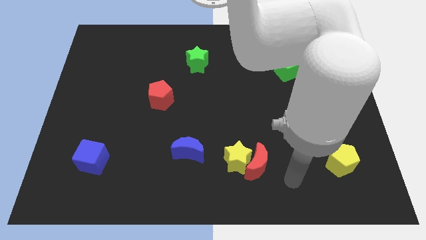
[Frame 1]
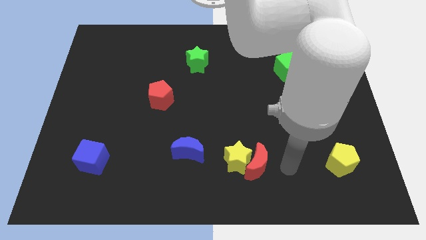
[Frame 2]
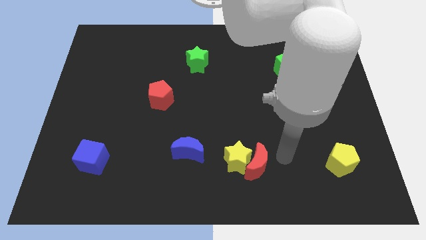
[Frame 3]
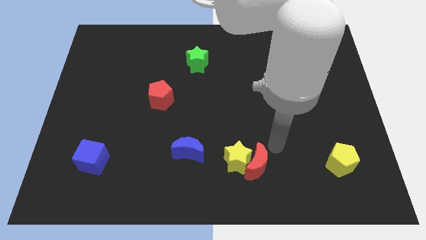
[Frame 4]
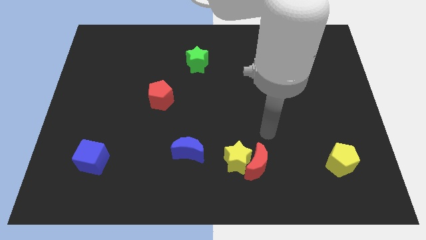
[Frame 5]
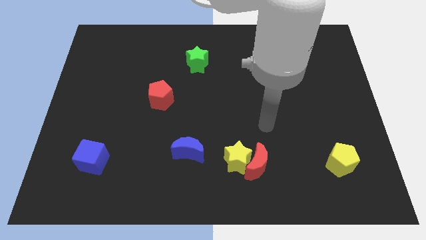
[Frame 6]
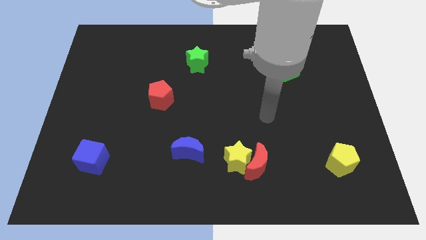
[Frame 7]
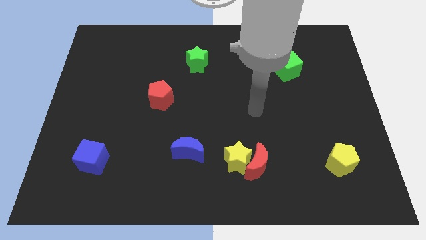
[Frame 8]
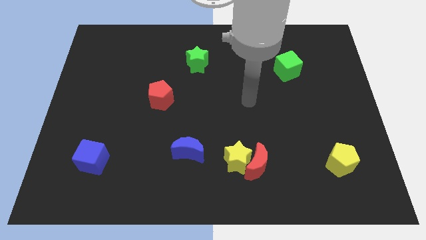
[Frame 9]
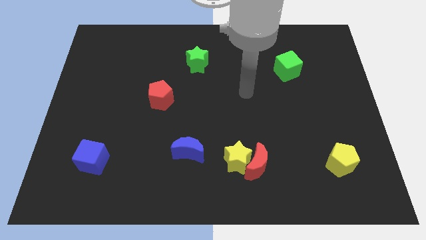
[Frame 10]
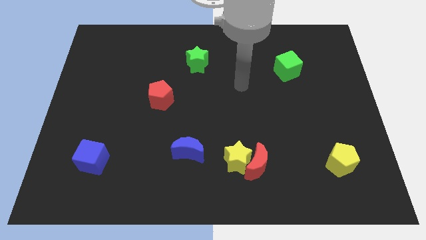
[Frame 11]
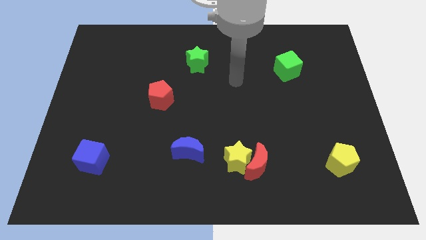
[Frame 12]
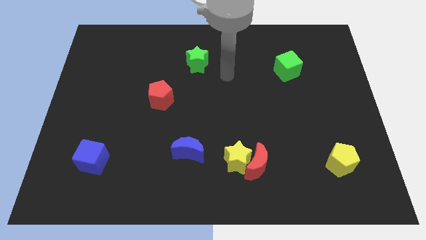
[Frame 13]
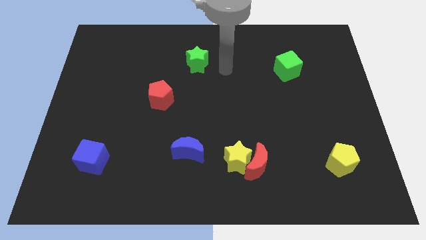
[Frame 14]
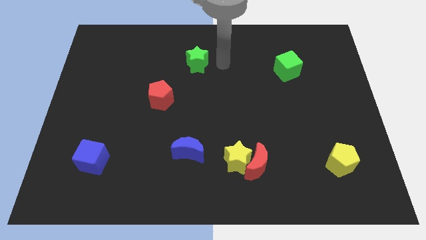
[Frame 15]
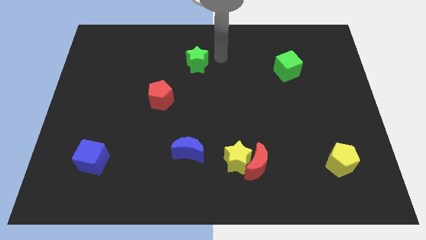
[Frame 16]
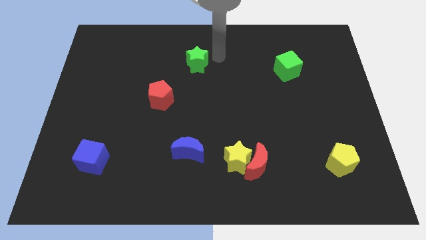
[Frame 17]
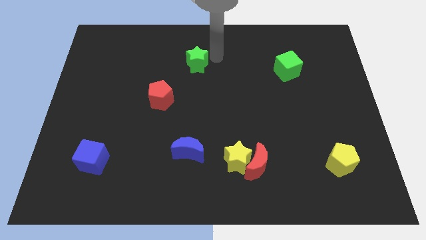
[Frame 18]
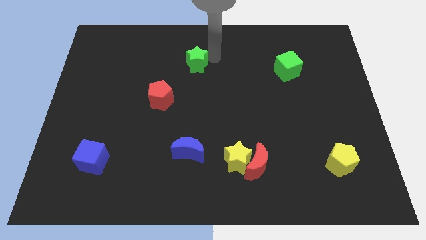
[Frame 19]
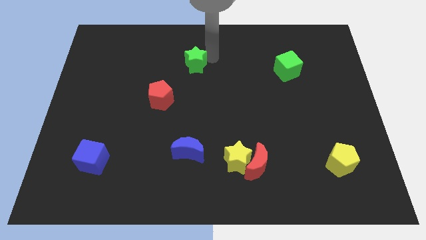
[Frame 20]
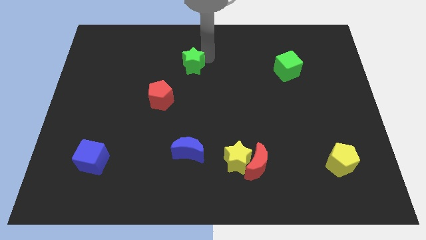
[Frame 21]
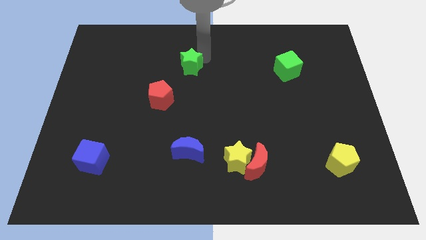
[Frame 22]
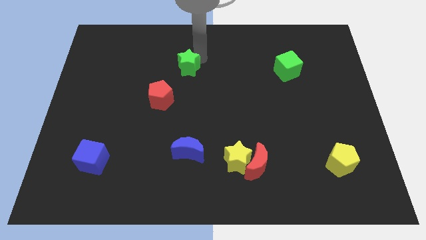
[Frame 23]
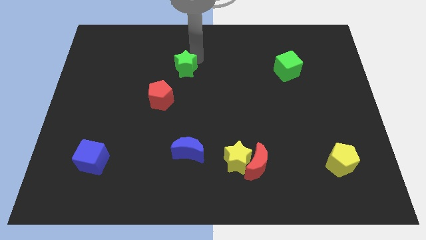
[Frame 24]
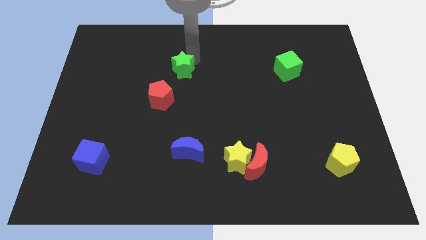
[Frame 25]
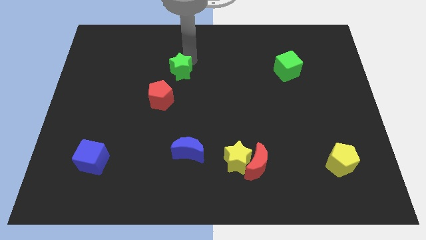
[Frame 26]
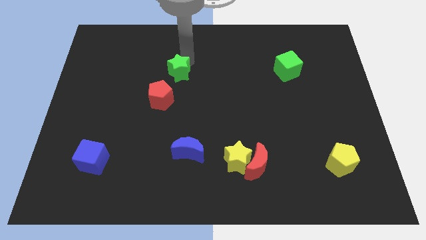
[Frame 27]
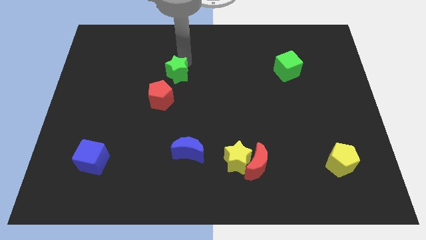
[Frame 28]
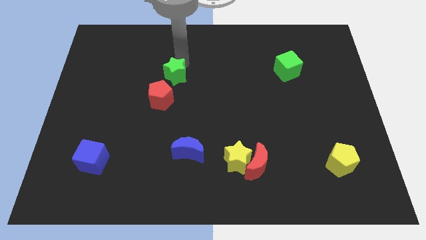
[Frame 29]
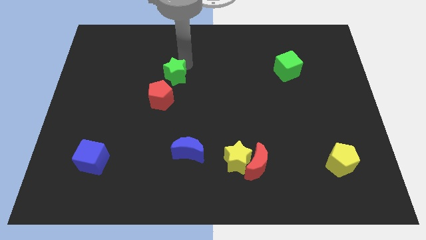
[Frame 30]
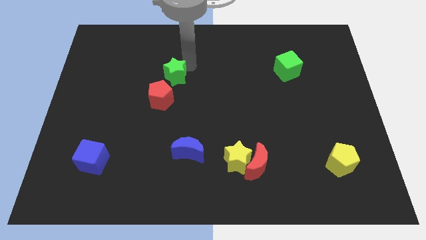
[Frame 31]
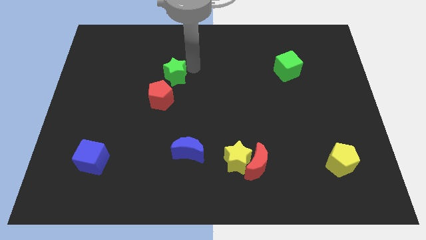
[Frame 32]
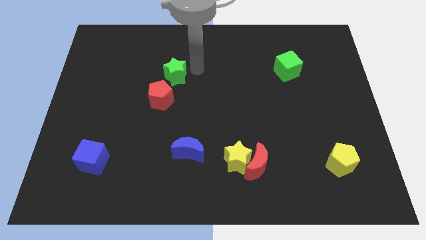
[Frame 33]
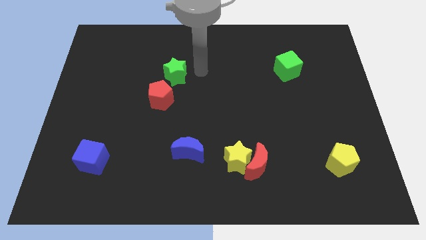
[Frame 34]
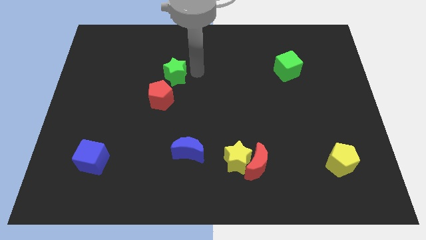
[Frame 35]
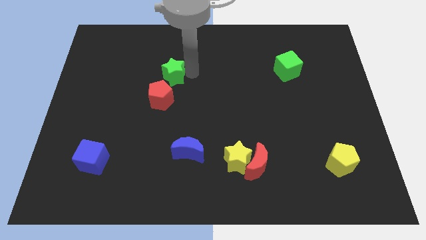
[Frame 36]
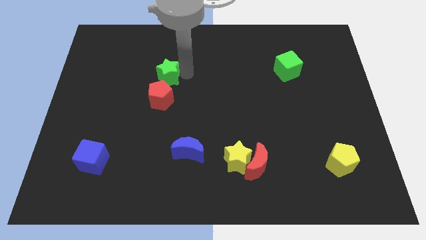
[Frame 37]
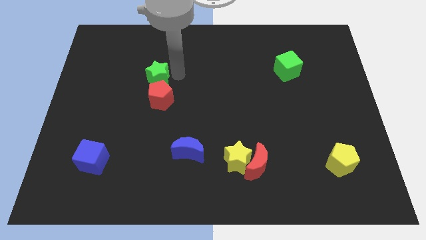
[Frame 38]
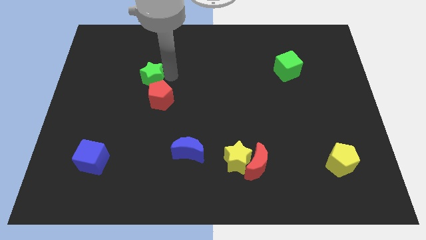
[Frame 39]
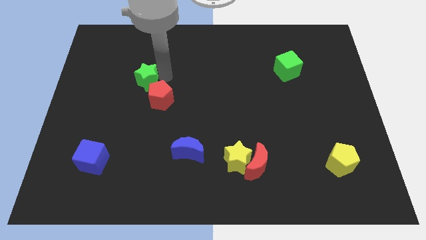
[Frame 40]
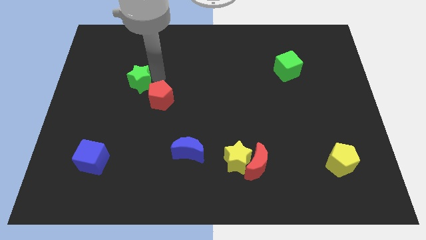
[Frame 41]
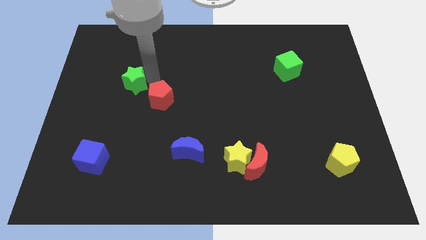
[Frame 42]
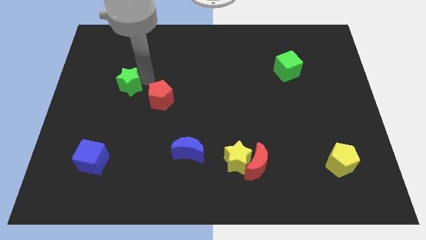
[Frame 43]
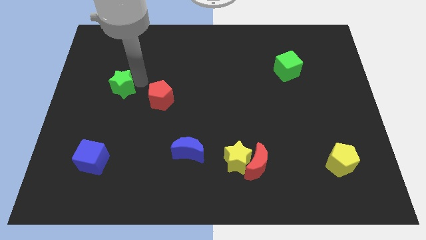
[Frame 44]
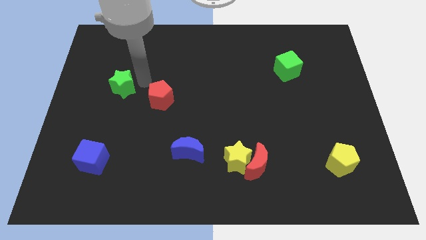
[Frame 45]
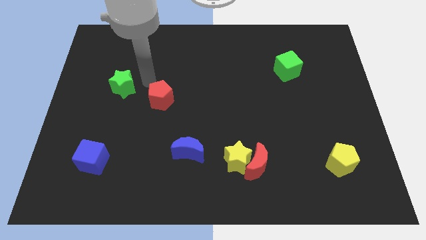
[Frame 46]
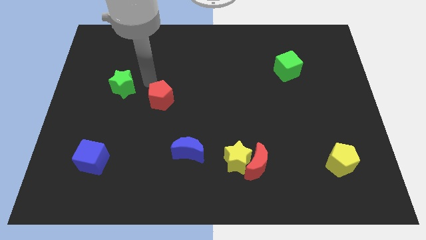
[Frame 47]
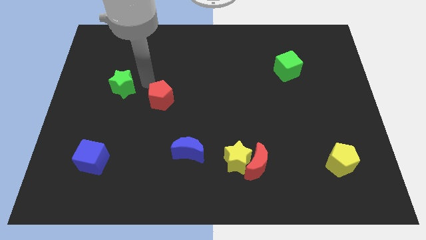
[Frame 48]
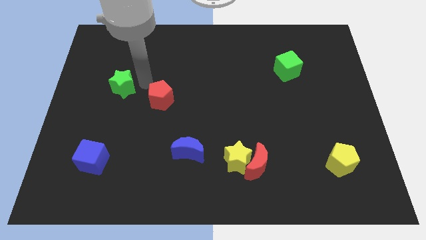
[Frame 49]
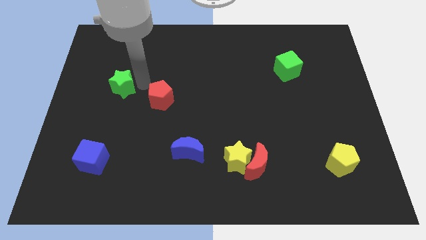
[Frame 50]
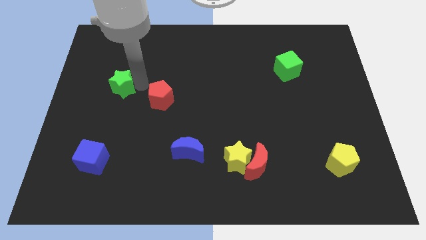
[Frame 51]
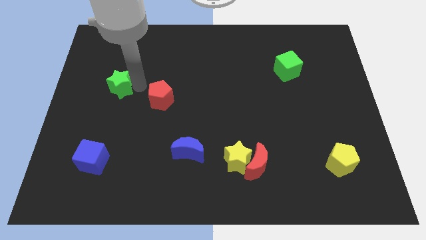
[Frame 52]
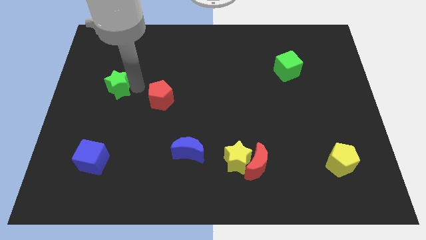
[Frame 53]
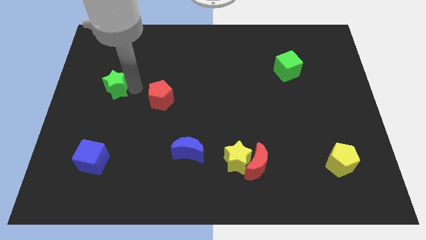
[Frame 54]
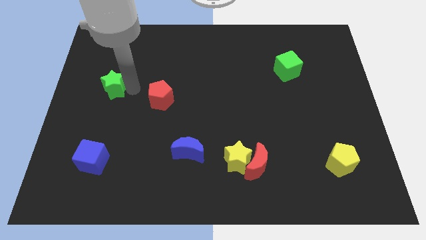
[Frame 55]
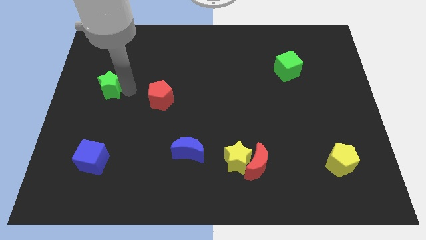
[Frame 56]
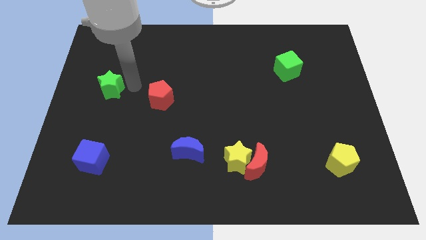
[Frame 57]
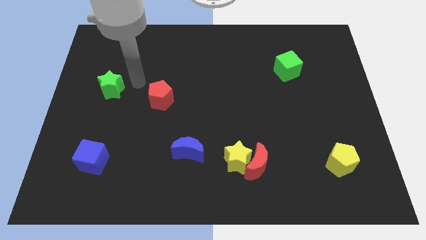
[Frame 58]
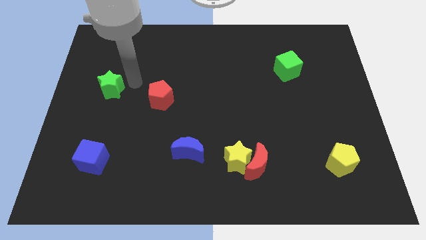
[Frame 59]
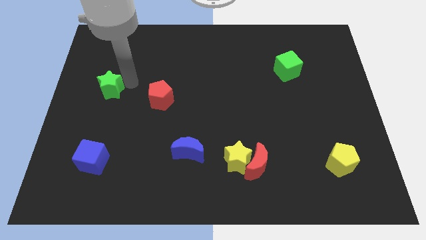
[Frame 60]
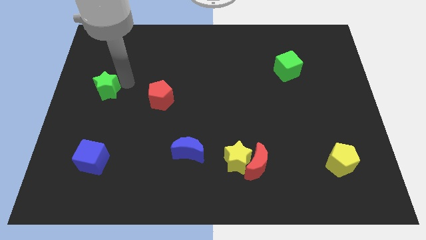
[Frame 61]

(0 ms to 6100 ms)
slide the green star to the left side of the board
